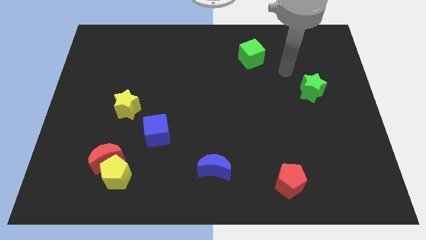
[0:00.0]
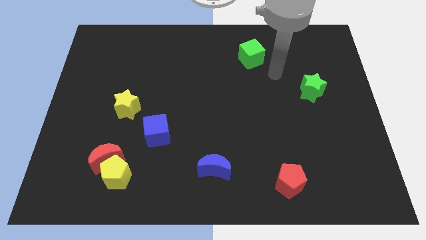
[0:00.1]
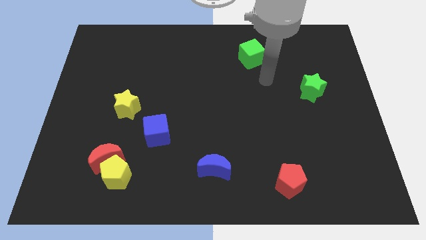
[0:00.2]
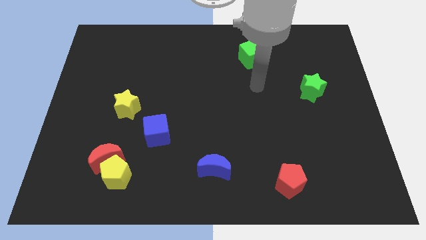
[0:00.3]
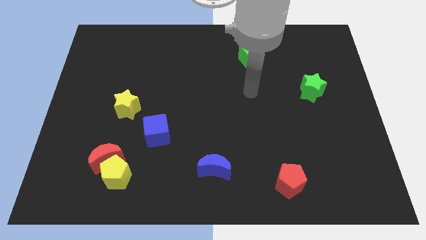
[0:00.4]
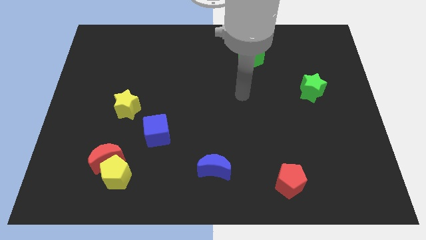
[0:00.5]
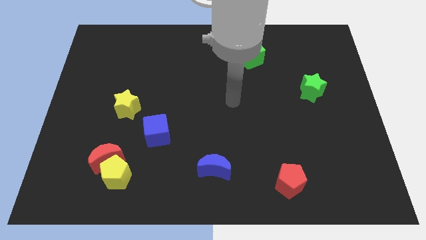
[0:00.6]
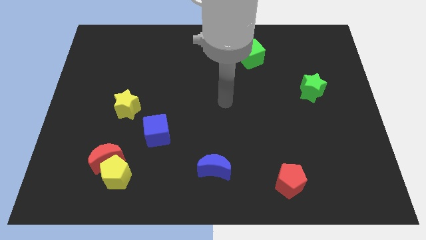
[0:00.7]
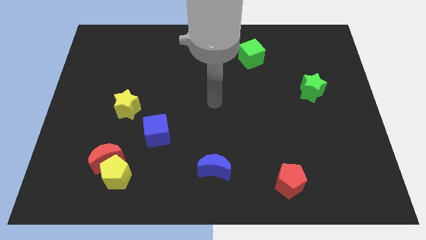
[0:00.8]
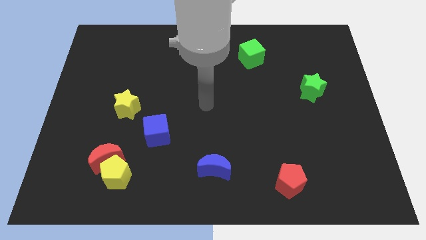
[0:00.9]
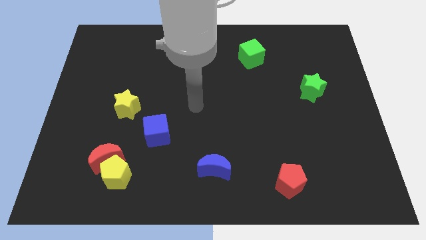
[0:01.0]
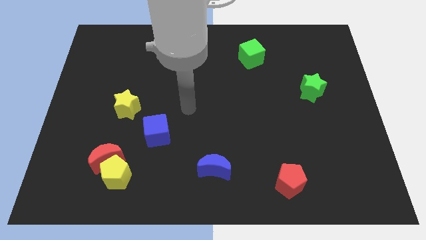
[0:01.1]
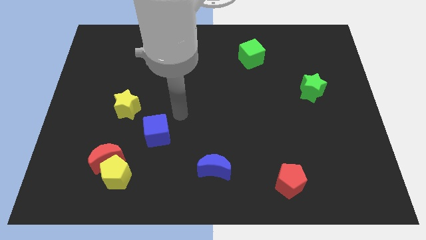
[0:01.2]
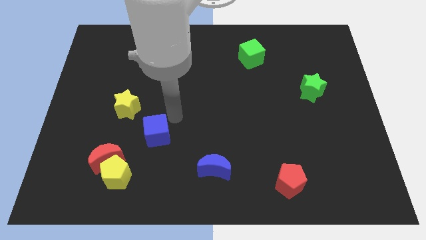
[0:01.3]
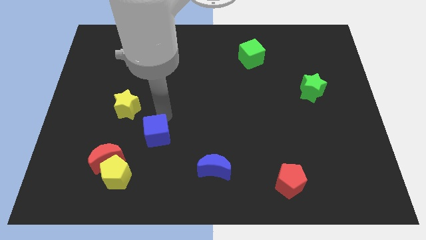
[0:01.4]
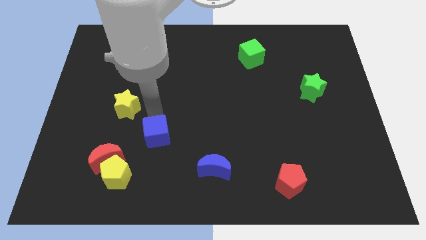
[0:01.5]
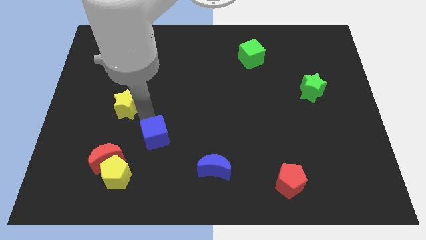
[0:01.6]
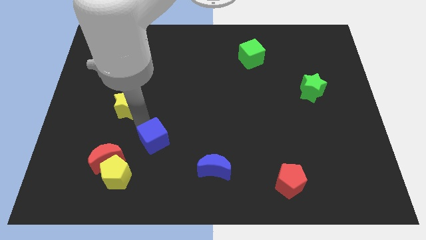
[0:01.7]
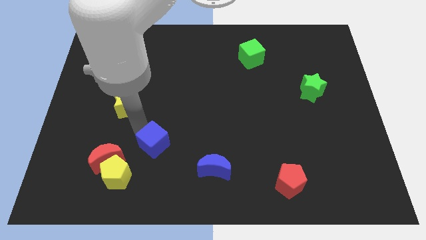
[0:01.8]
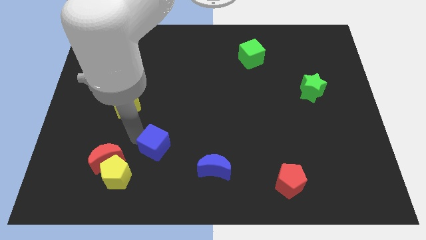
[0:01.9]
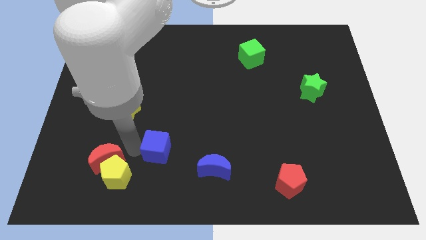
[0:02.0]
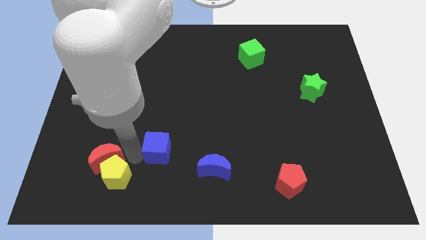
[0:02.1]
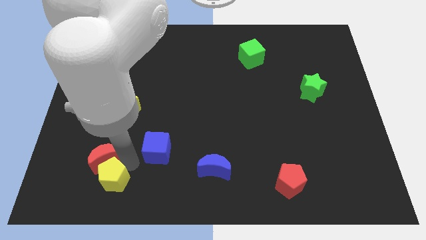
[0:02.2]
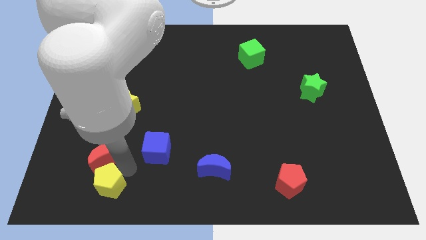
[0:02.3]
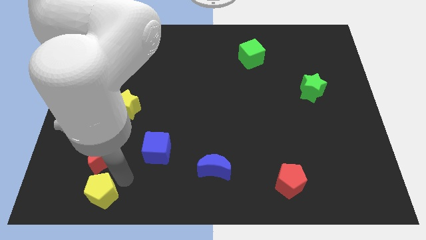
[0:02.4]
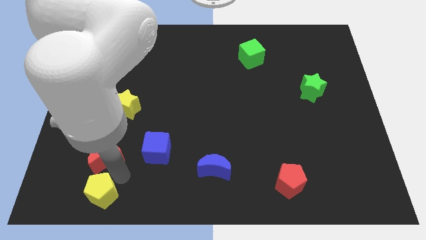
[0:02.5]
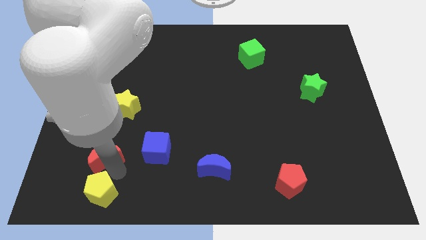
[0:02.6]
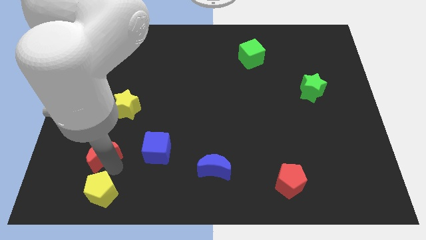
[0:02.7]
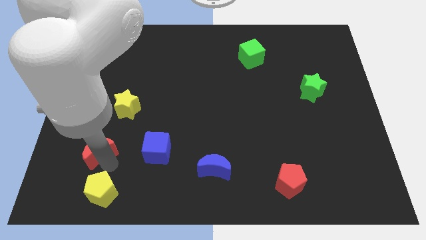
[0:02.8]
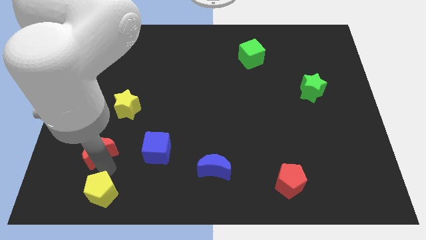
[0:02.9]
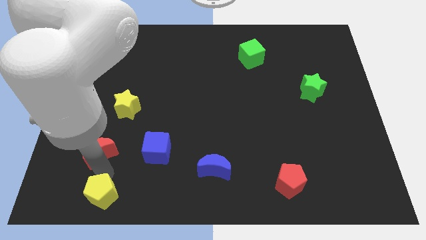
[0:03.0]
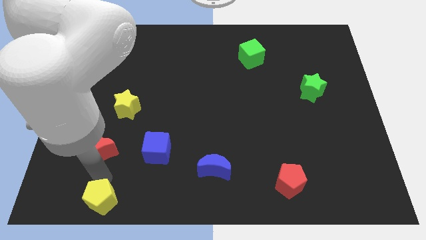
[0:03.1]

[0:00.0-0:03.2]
separate the red moon from the yellow pentagon

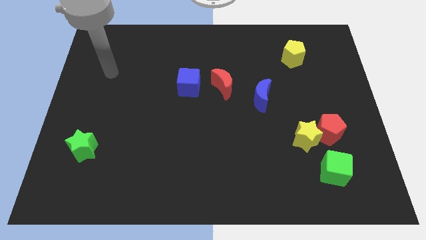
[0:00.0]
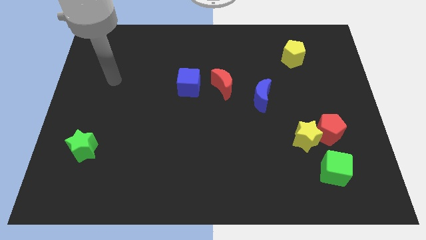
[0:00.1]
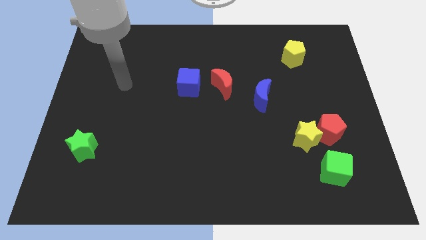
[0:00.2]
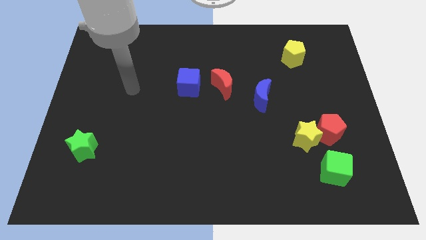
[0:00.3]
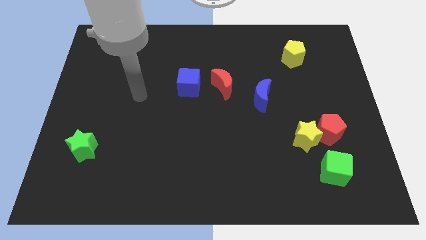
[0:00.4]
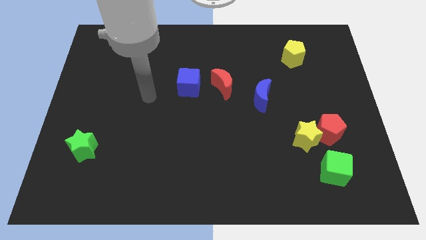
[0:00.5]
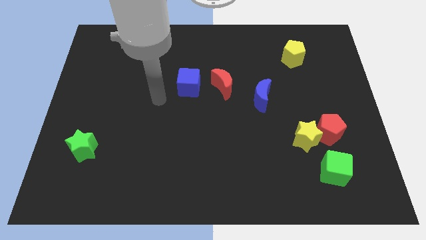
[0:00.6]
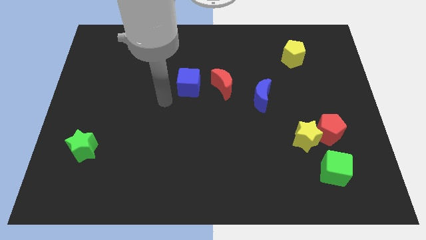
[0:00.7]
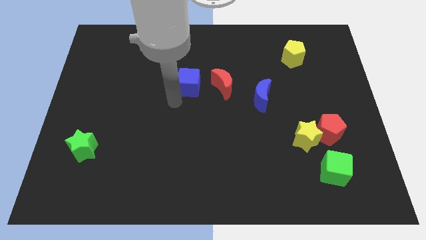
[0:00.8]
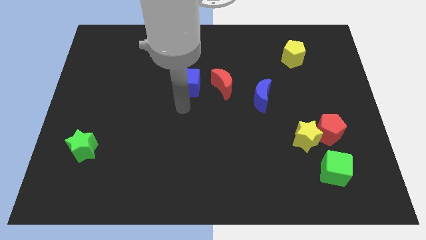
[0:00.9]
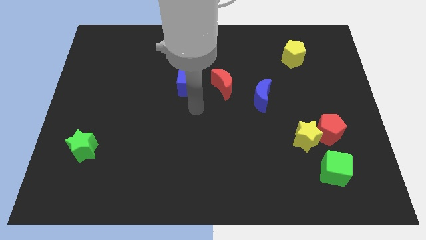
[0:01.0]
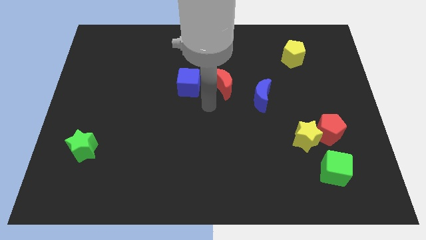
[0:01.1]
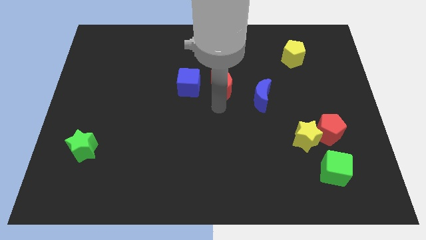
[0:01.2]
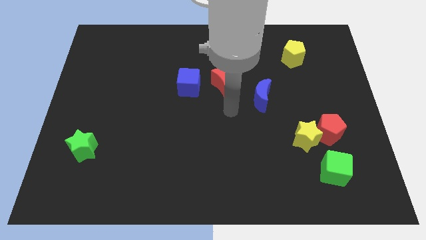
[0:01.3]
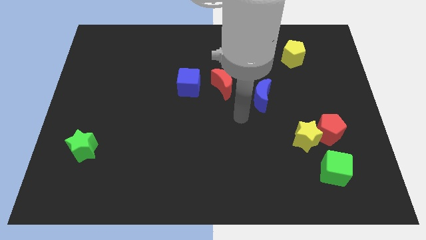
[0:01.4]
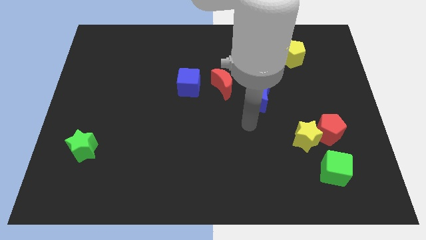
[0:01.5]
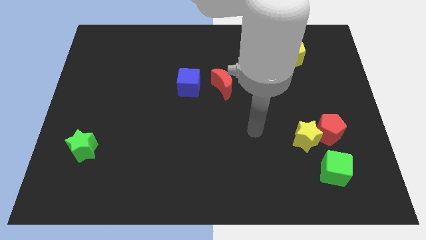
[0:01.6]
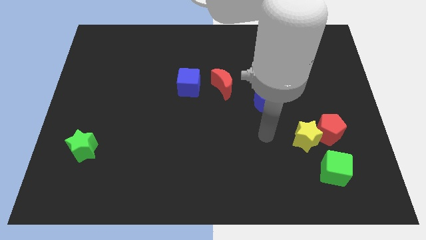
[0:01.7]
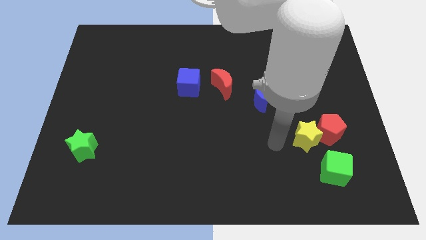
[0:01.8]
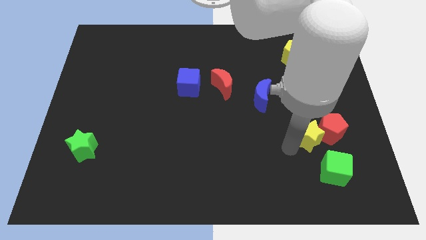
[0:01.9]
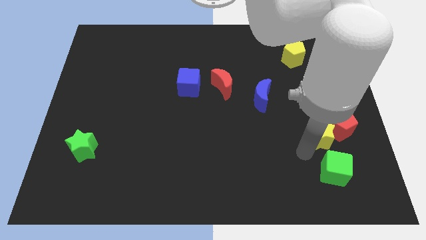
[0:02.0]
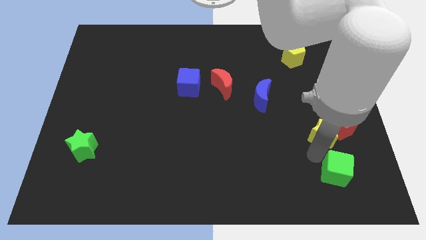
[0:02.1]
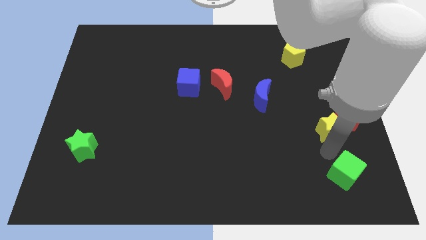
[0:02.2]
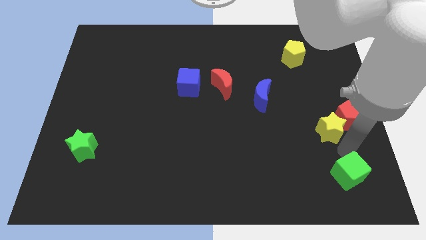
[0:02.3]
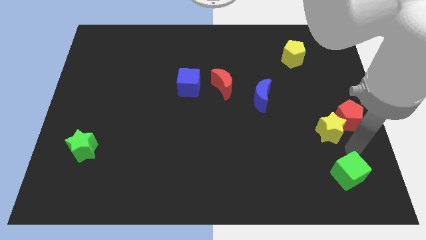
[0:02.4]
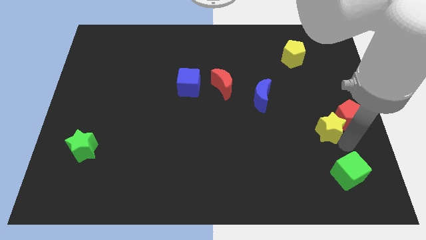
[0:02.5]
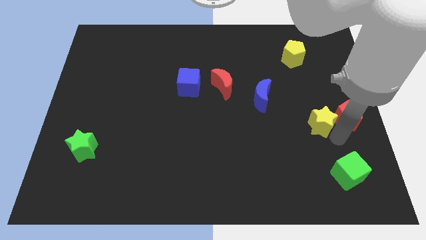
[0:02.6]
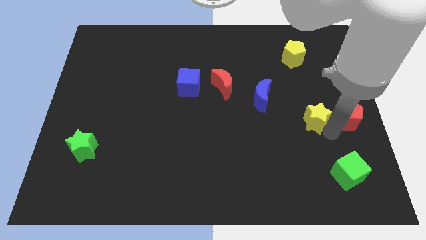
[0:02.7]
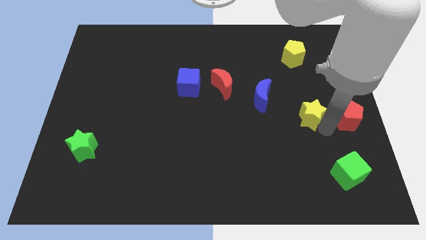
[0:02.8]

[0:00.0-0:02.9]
pull the yellow star apart from the red pentagon and green cube

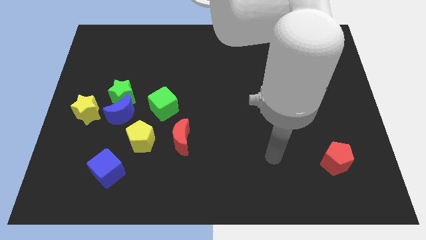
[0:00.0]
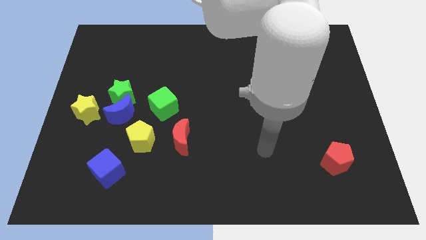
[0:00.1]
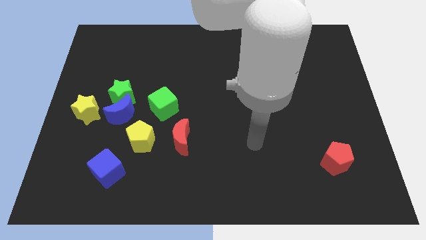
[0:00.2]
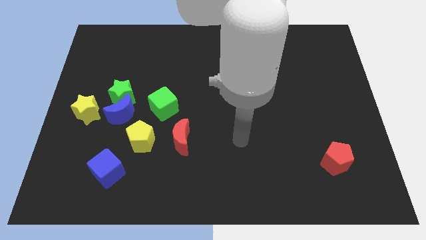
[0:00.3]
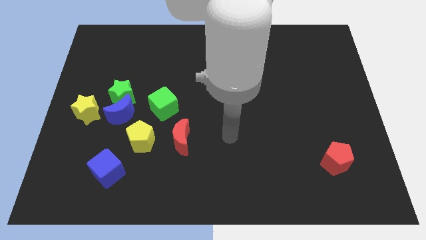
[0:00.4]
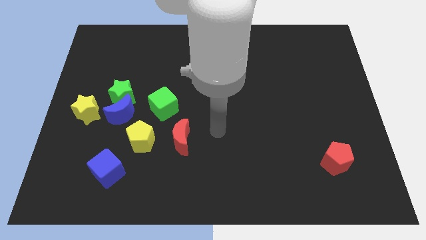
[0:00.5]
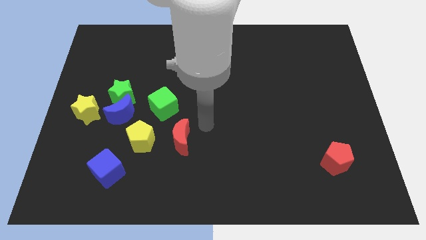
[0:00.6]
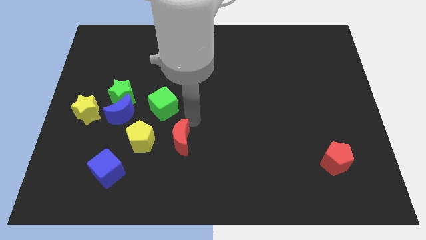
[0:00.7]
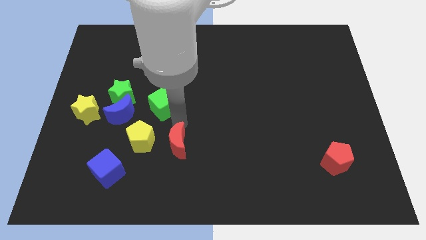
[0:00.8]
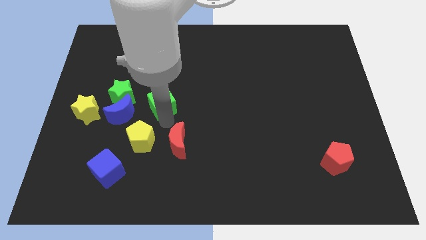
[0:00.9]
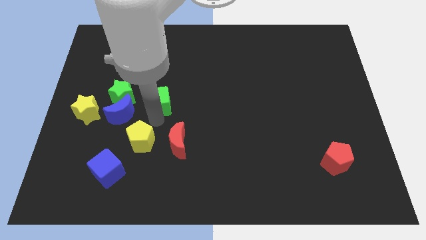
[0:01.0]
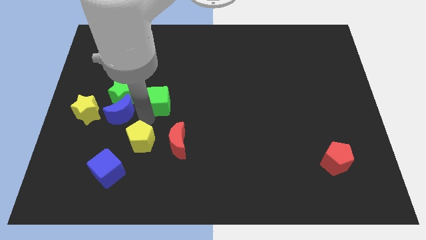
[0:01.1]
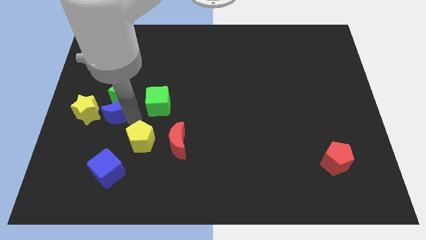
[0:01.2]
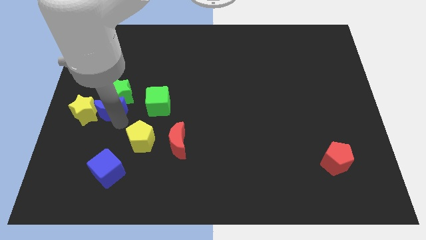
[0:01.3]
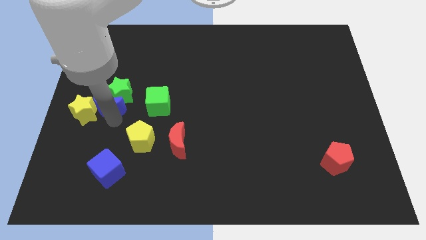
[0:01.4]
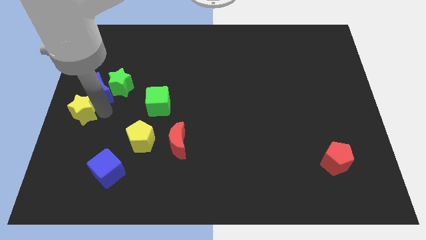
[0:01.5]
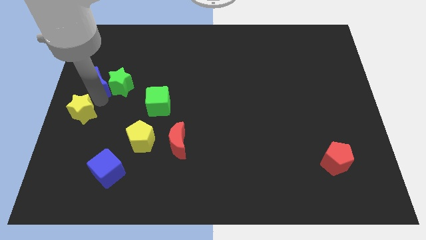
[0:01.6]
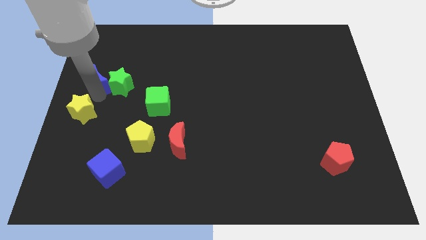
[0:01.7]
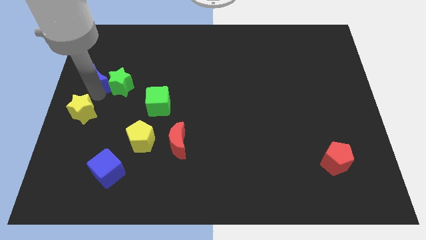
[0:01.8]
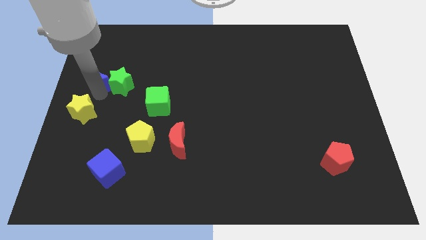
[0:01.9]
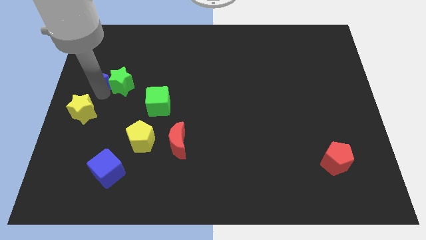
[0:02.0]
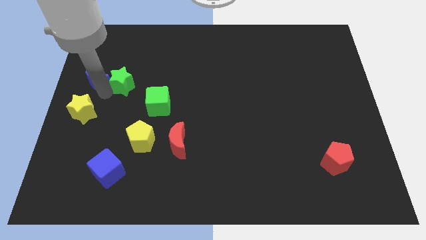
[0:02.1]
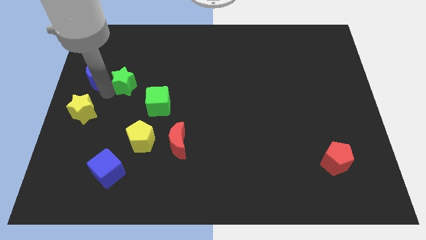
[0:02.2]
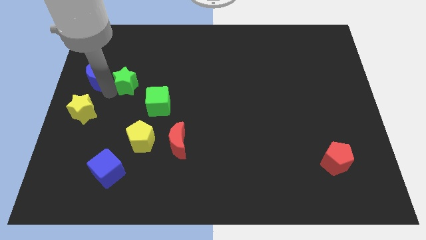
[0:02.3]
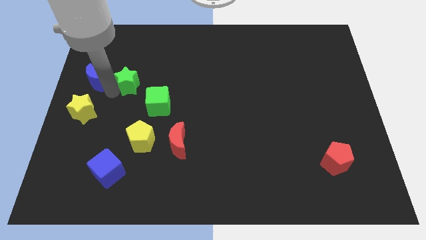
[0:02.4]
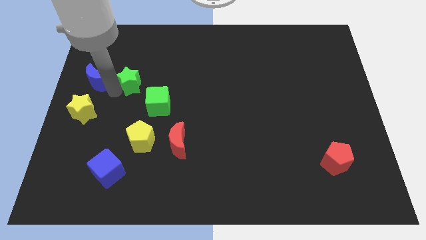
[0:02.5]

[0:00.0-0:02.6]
move the green star away from the blue moon and yellow star

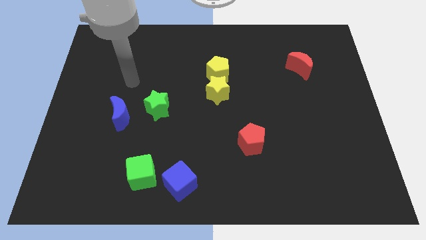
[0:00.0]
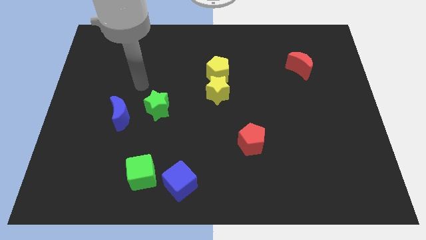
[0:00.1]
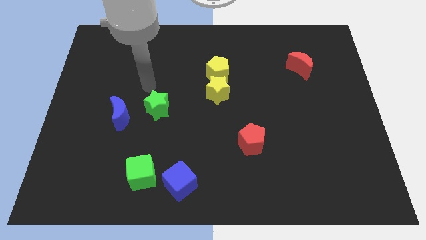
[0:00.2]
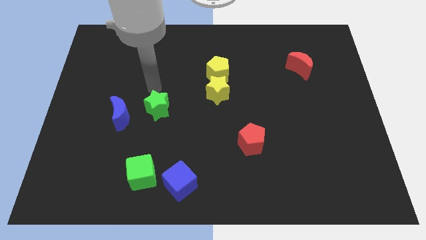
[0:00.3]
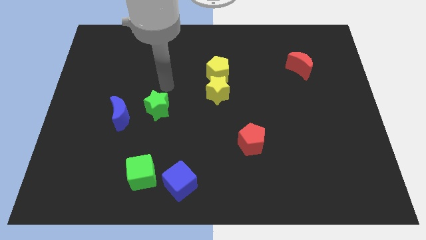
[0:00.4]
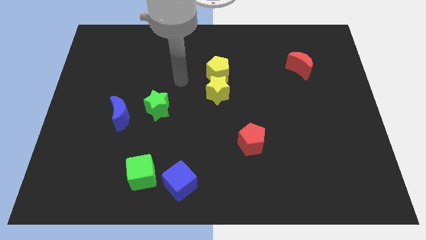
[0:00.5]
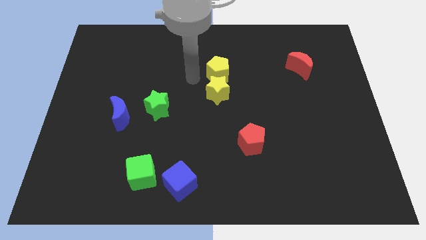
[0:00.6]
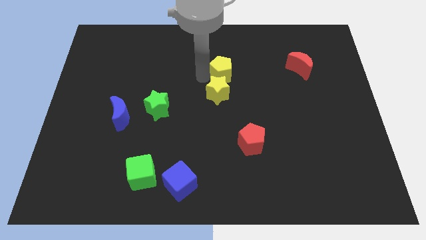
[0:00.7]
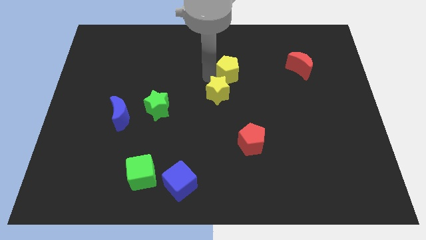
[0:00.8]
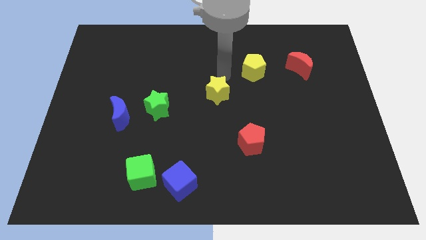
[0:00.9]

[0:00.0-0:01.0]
move the yellow star away from the yellow pentagon
